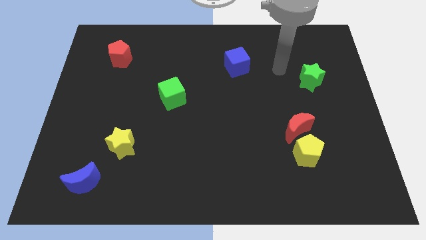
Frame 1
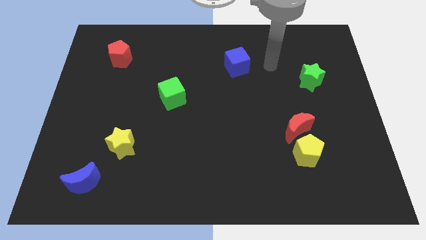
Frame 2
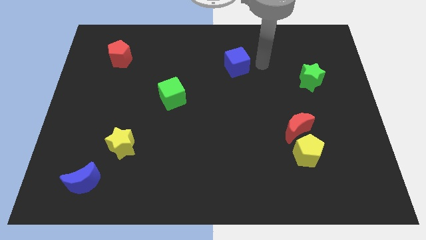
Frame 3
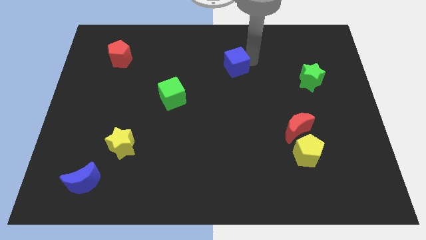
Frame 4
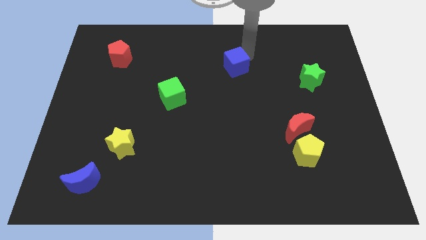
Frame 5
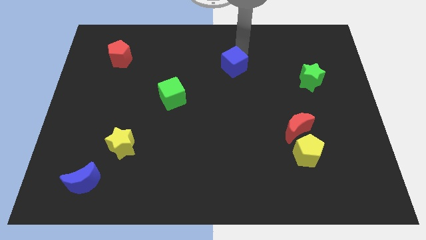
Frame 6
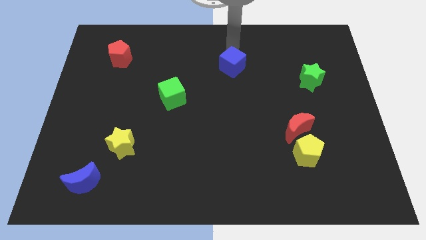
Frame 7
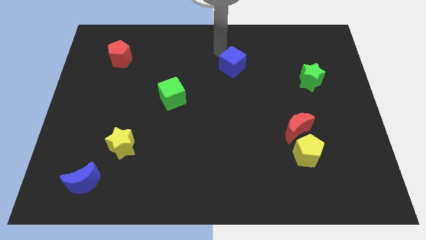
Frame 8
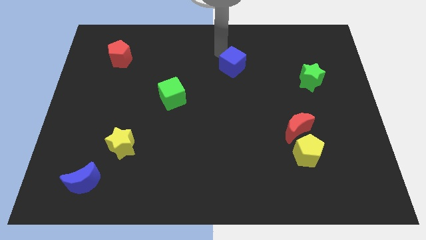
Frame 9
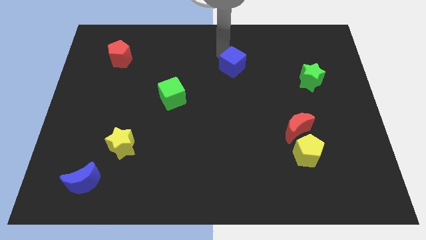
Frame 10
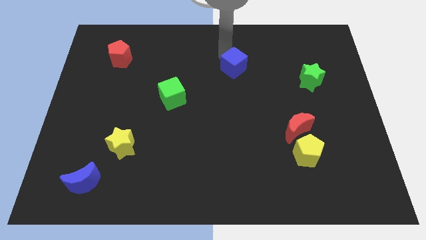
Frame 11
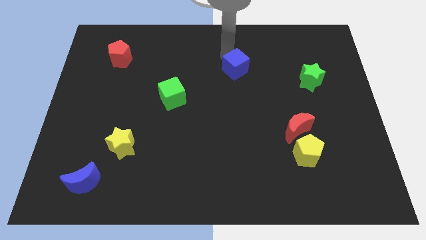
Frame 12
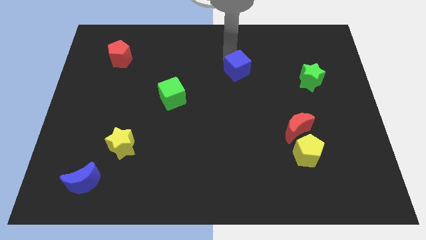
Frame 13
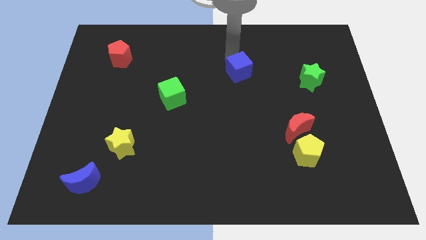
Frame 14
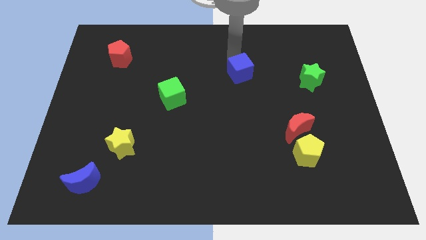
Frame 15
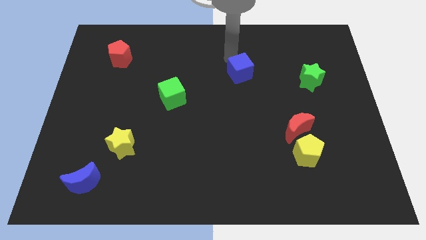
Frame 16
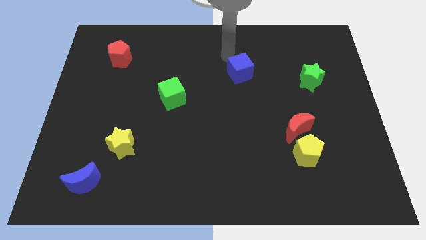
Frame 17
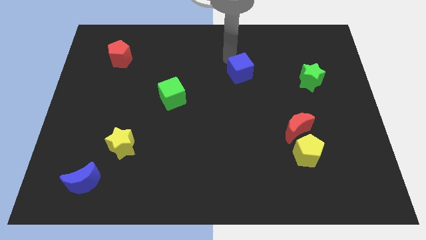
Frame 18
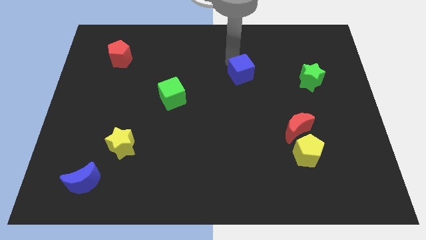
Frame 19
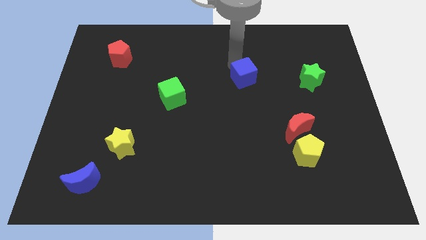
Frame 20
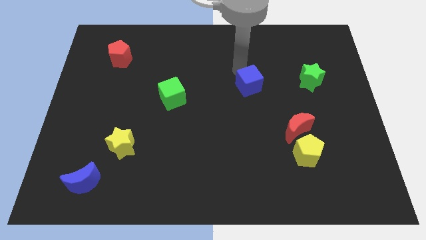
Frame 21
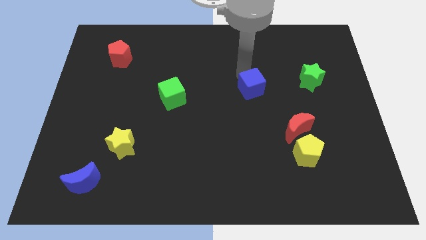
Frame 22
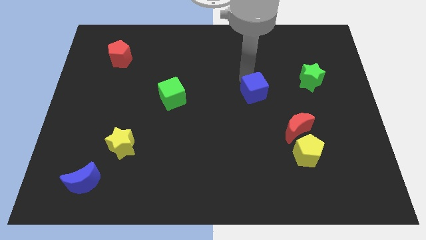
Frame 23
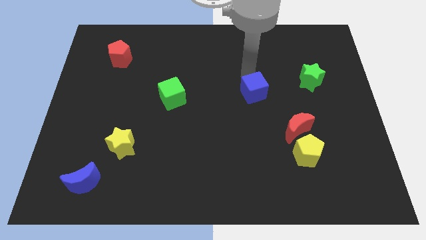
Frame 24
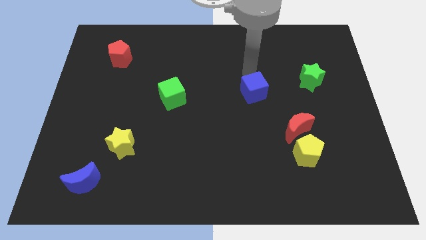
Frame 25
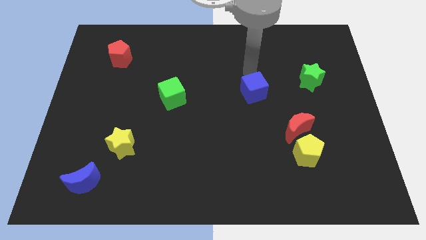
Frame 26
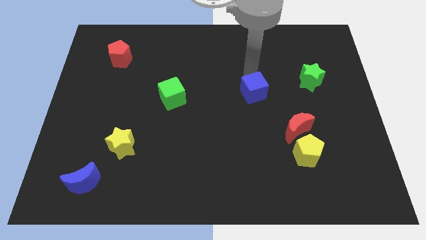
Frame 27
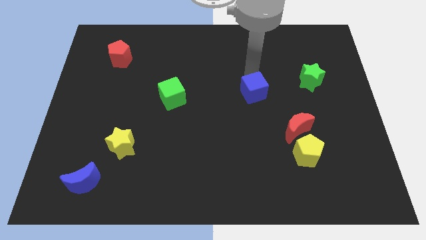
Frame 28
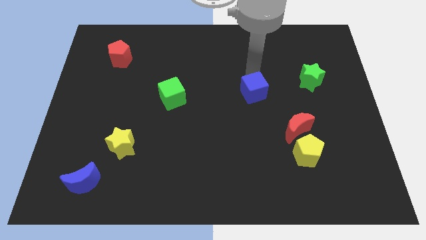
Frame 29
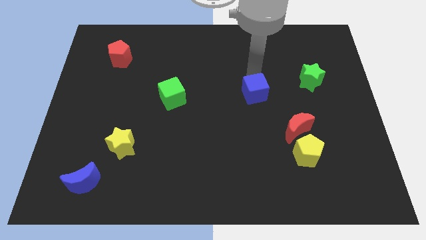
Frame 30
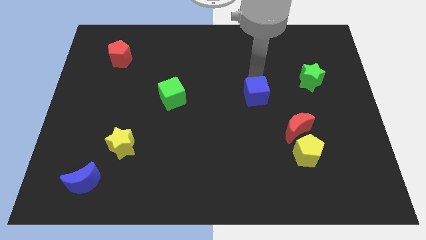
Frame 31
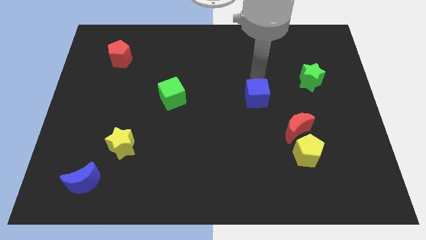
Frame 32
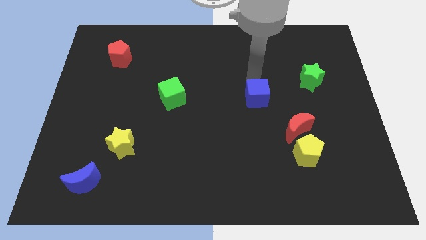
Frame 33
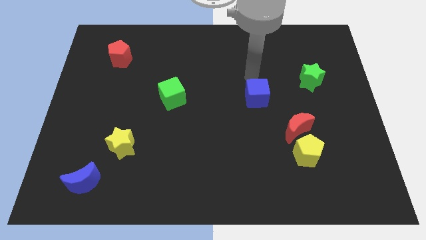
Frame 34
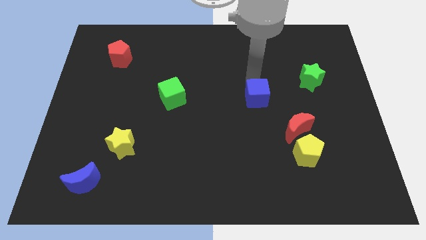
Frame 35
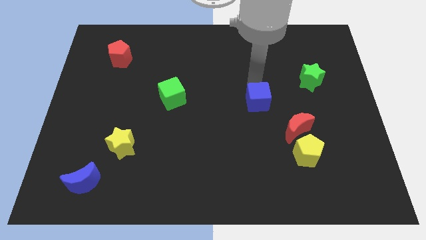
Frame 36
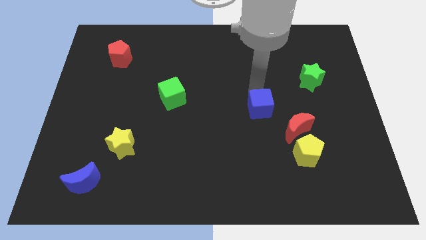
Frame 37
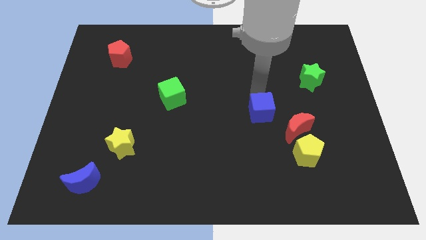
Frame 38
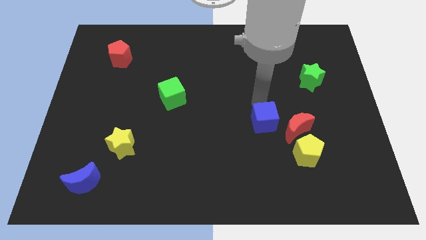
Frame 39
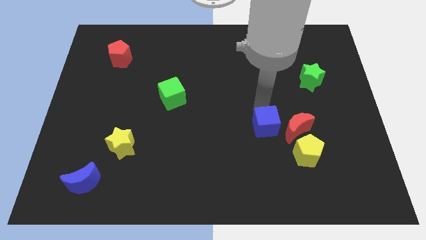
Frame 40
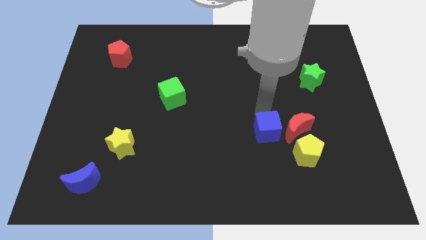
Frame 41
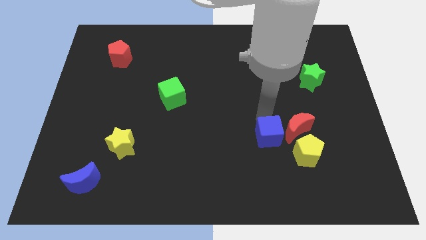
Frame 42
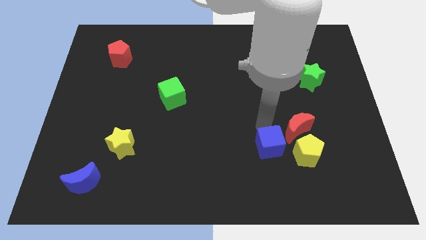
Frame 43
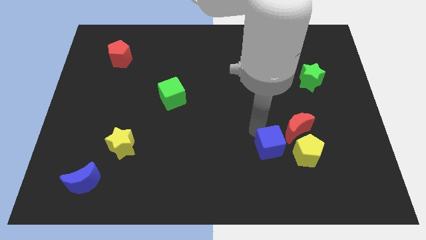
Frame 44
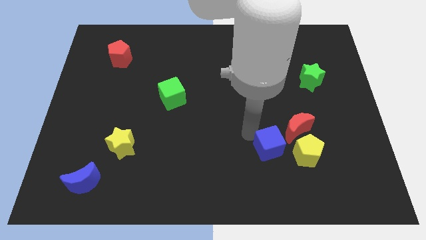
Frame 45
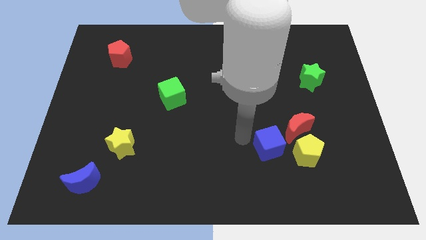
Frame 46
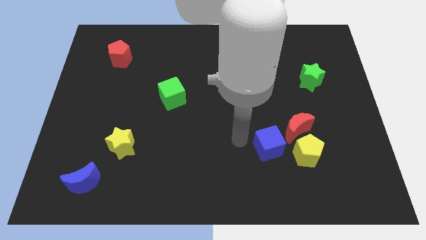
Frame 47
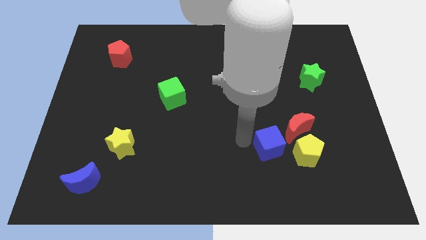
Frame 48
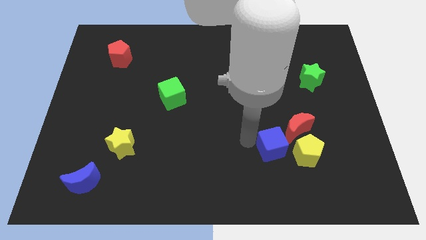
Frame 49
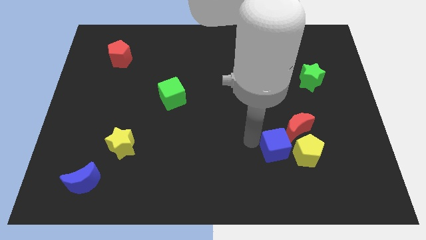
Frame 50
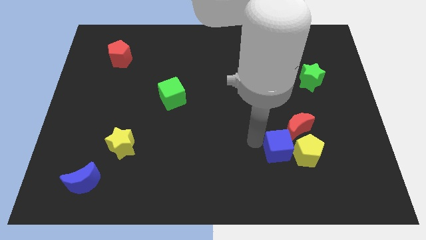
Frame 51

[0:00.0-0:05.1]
put the blue cube towards the yellow pentagon

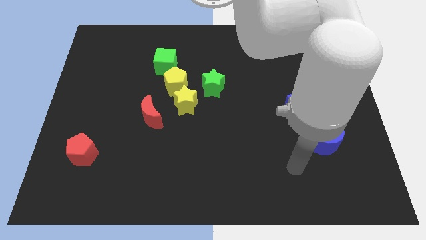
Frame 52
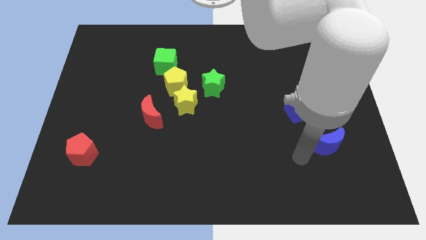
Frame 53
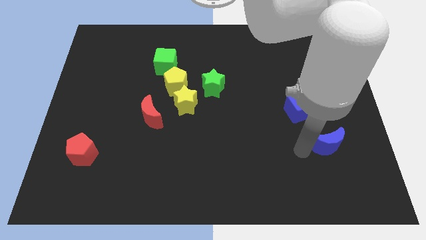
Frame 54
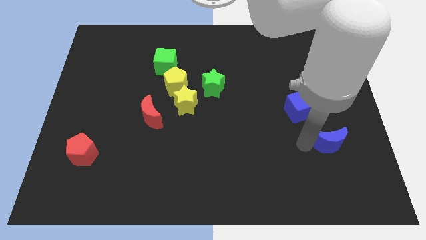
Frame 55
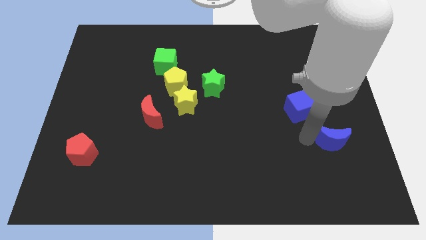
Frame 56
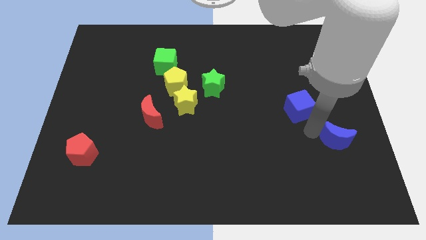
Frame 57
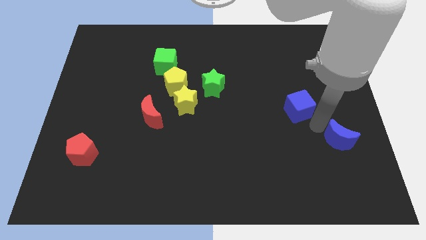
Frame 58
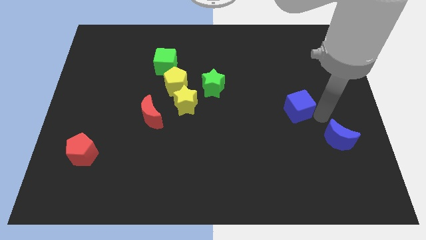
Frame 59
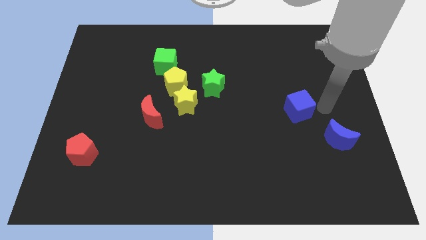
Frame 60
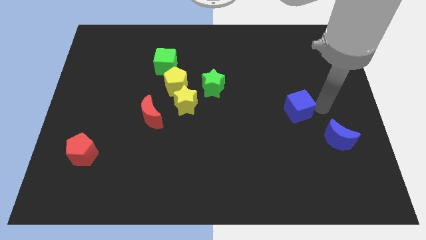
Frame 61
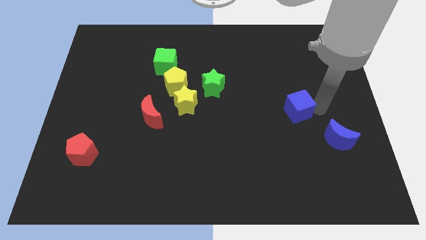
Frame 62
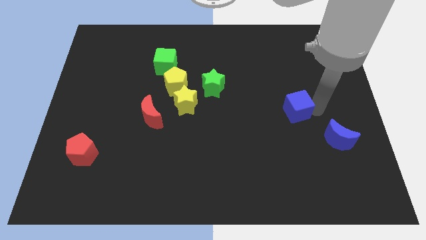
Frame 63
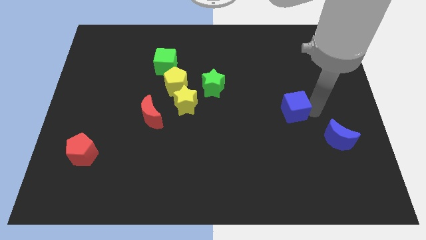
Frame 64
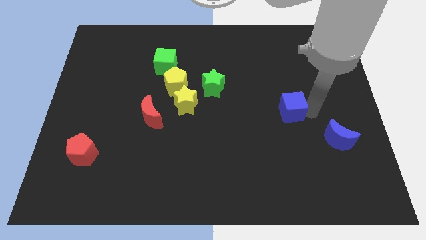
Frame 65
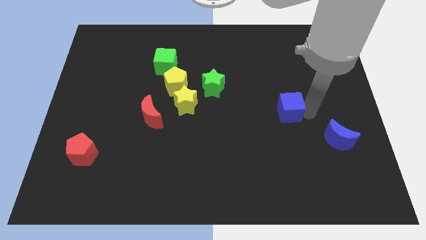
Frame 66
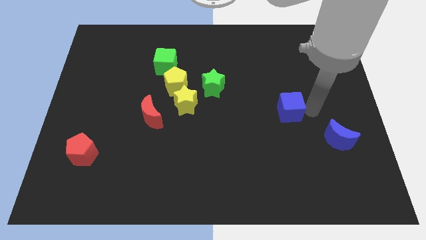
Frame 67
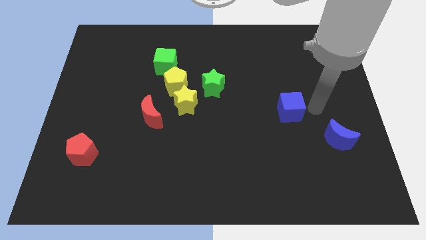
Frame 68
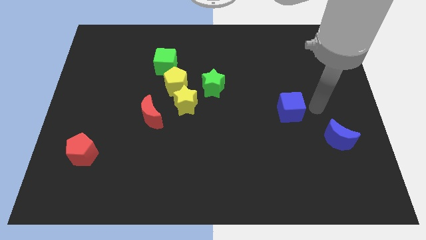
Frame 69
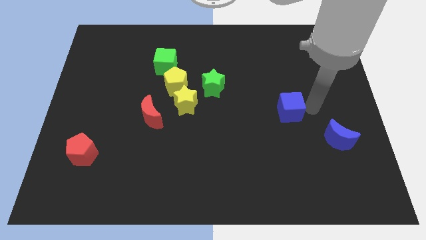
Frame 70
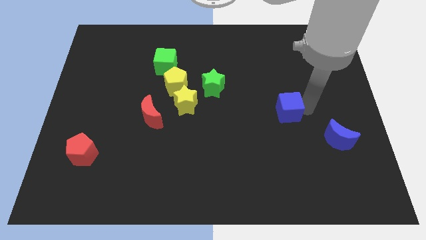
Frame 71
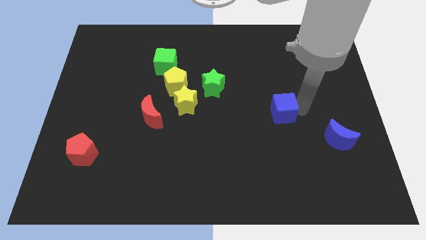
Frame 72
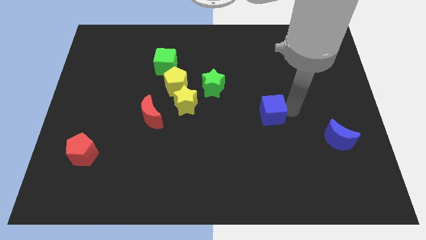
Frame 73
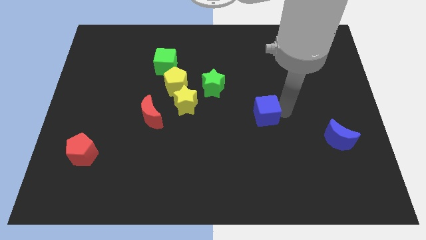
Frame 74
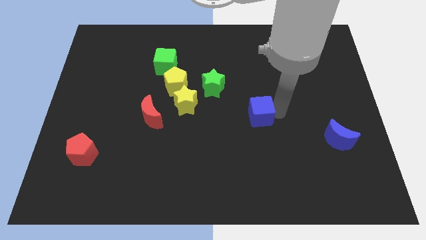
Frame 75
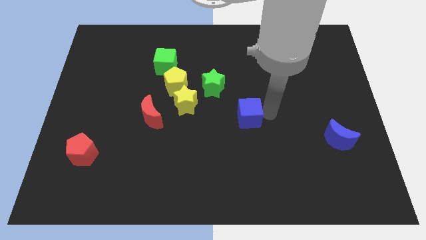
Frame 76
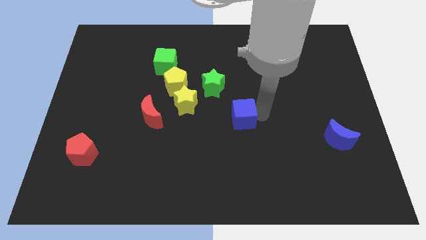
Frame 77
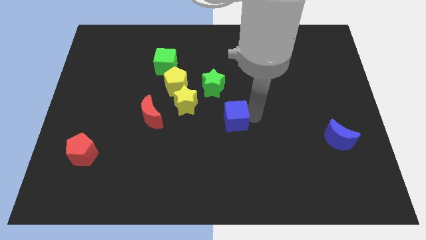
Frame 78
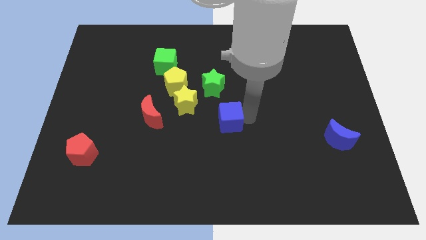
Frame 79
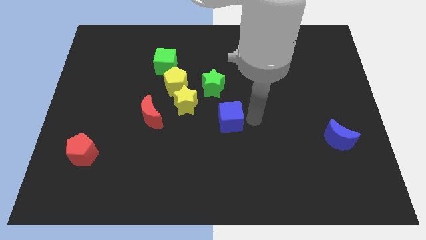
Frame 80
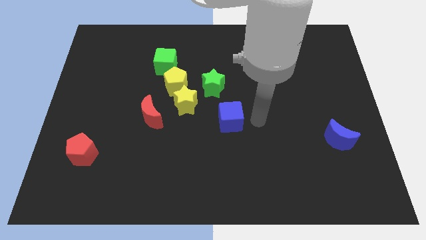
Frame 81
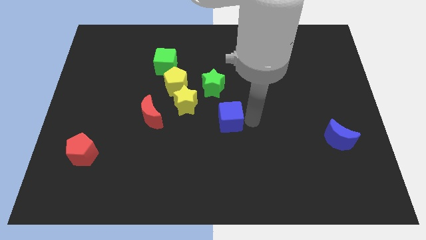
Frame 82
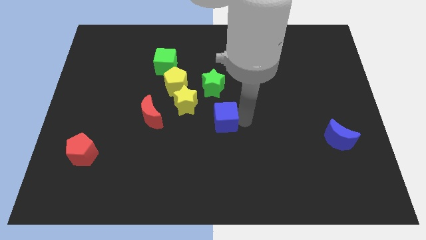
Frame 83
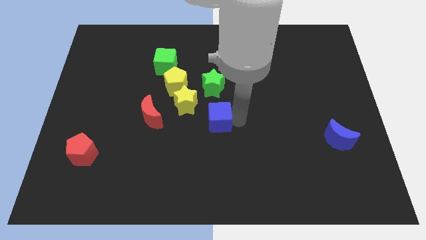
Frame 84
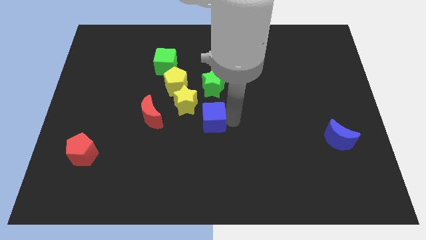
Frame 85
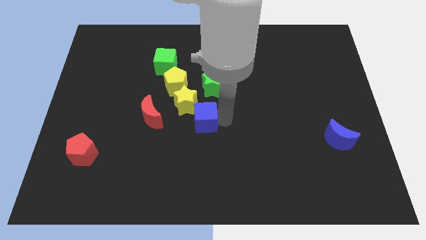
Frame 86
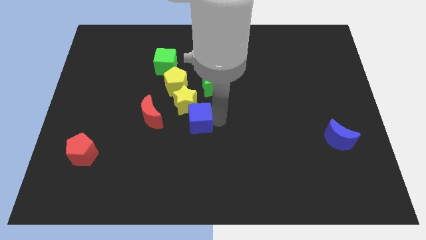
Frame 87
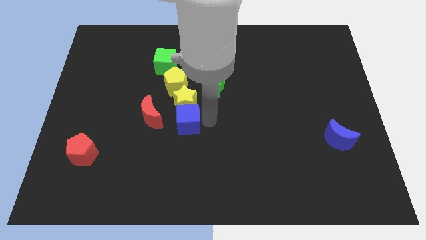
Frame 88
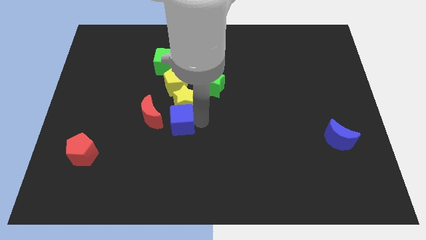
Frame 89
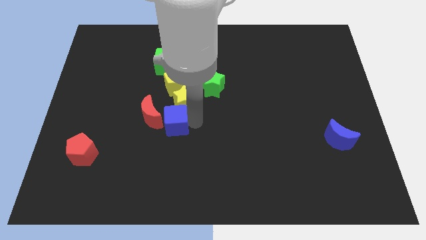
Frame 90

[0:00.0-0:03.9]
push the blue cube next to the red moon
